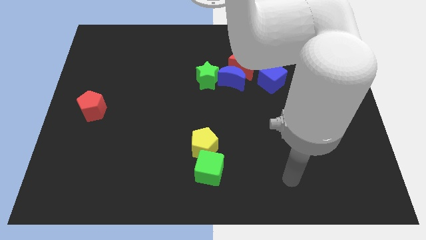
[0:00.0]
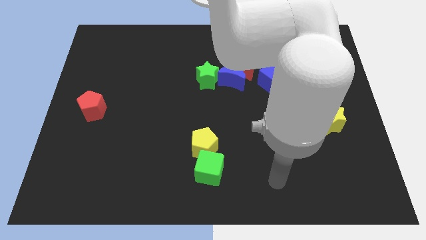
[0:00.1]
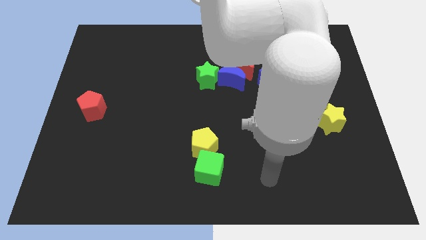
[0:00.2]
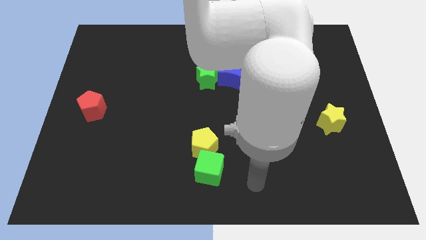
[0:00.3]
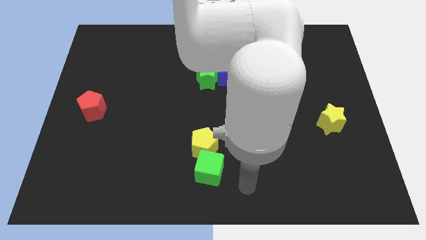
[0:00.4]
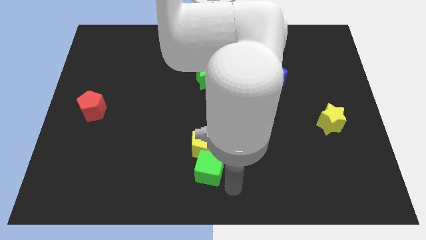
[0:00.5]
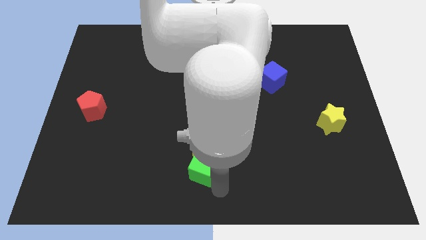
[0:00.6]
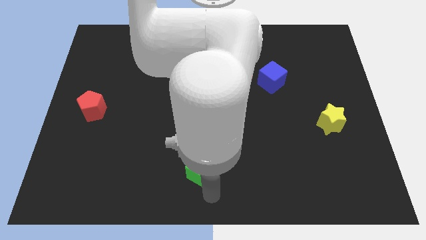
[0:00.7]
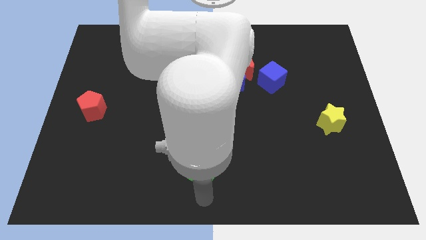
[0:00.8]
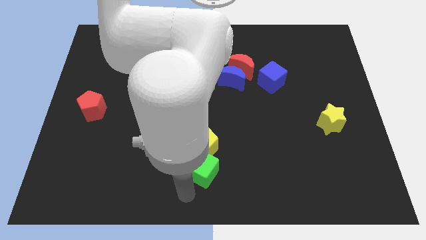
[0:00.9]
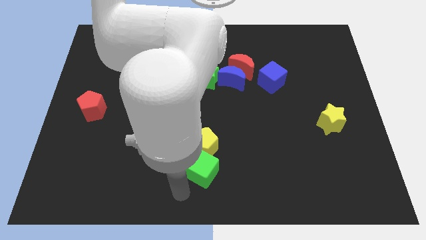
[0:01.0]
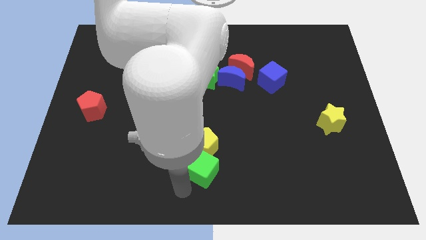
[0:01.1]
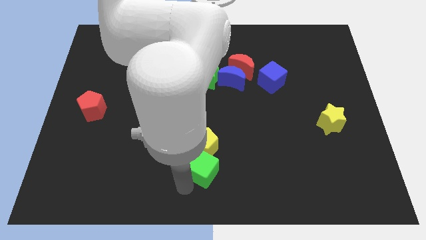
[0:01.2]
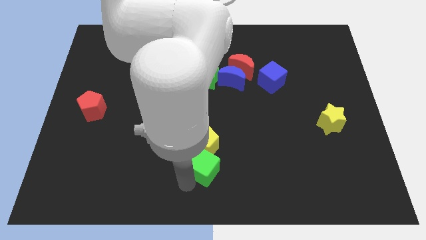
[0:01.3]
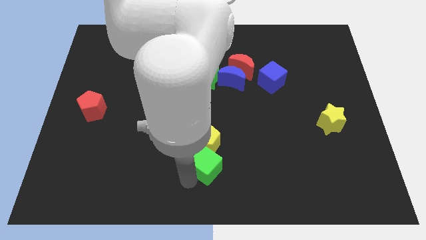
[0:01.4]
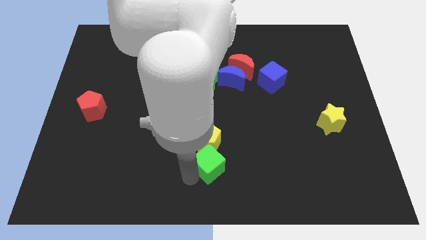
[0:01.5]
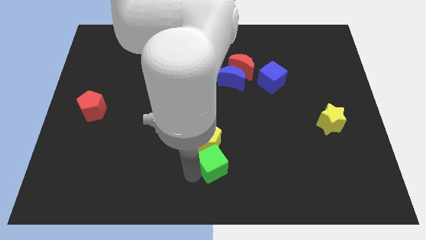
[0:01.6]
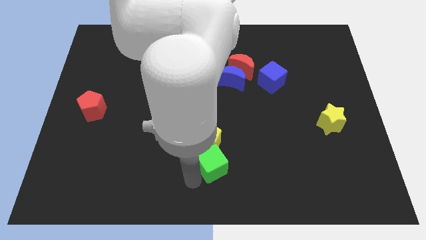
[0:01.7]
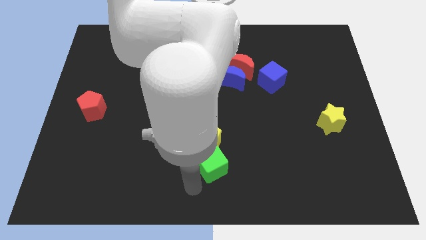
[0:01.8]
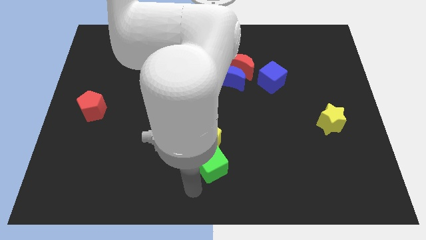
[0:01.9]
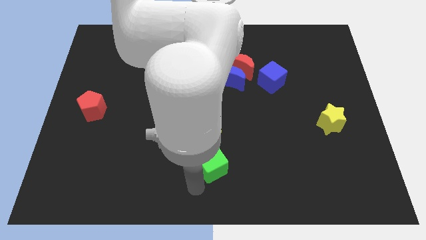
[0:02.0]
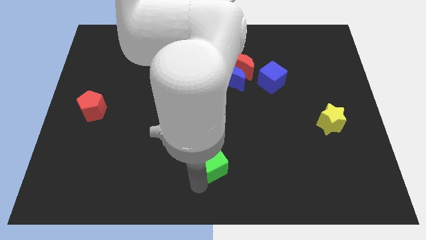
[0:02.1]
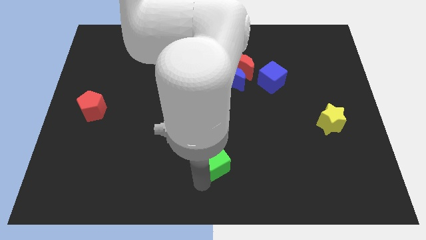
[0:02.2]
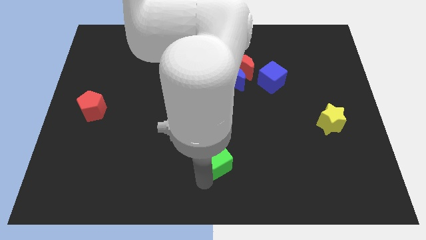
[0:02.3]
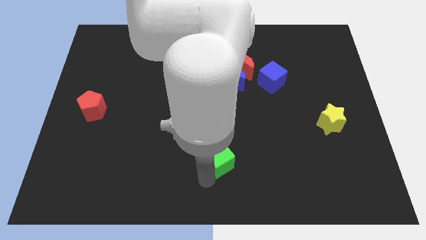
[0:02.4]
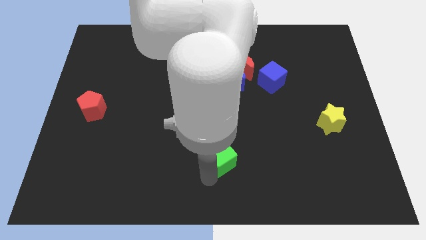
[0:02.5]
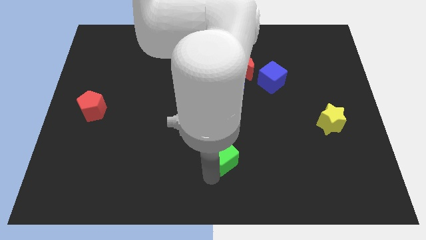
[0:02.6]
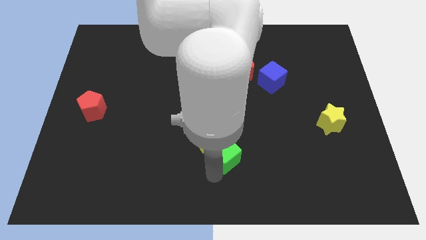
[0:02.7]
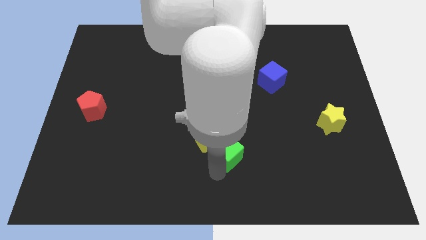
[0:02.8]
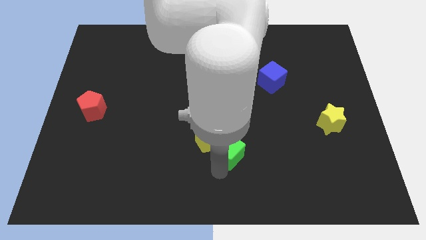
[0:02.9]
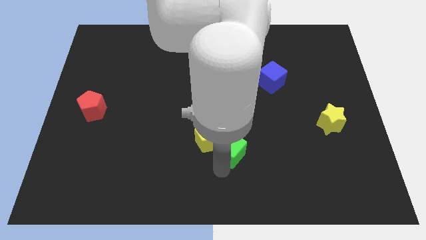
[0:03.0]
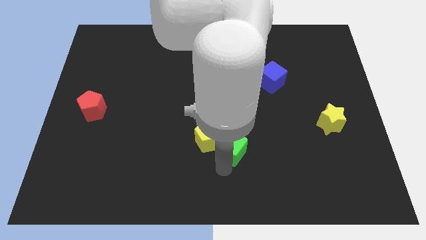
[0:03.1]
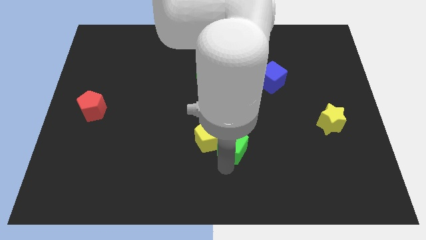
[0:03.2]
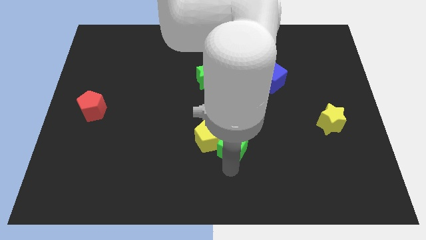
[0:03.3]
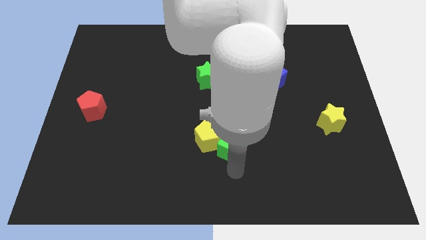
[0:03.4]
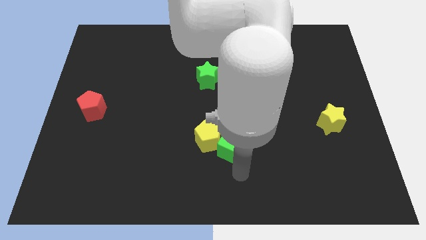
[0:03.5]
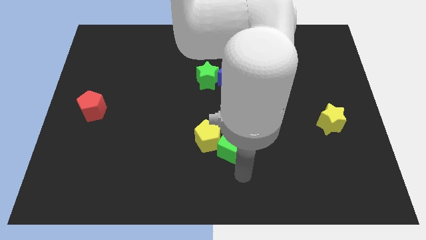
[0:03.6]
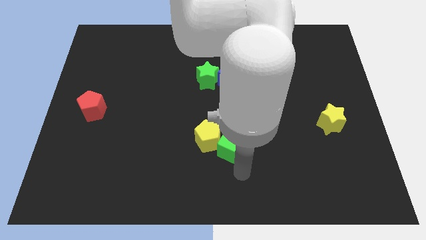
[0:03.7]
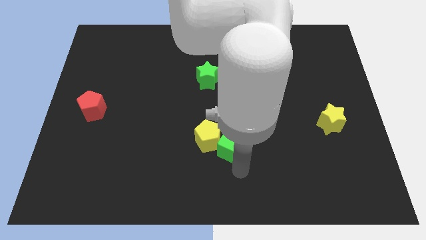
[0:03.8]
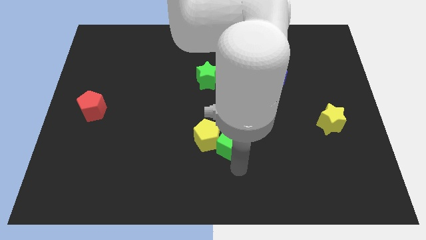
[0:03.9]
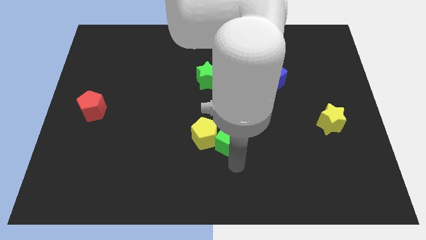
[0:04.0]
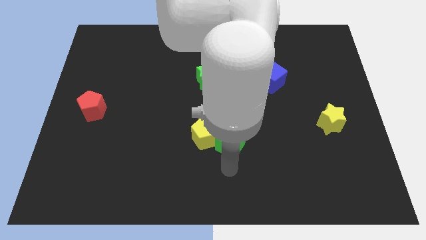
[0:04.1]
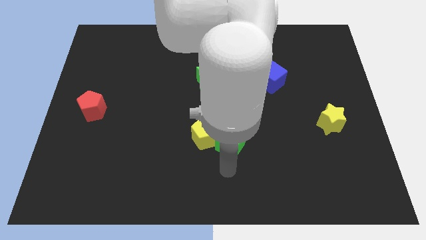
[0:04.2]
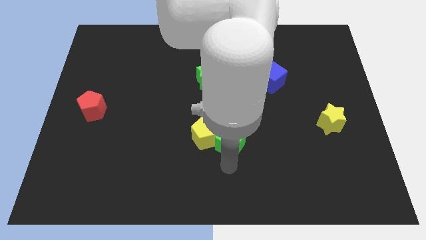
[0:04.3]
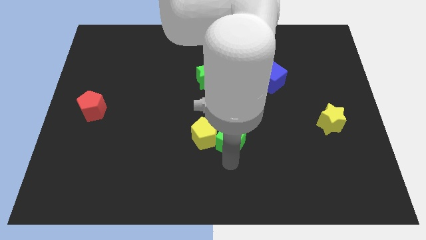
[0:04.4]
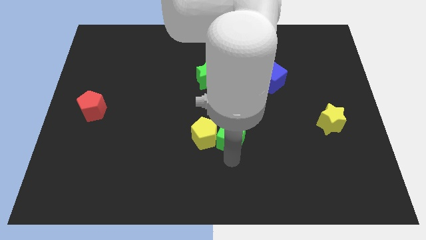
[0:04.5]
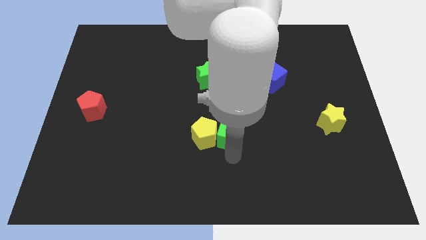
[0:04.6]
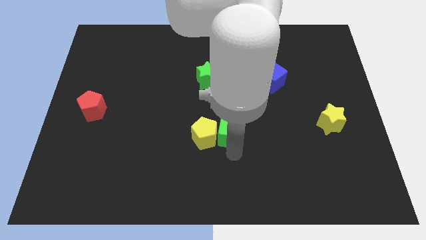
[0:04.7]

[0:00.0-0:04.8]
push the green cube below the blue moon

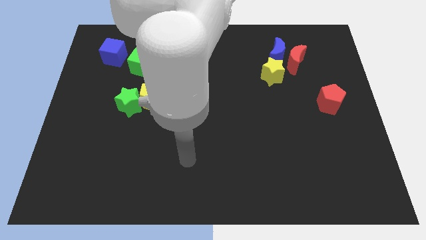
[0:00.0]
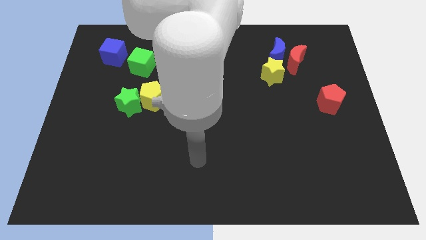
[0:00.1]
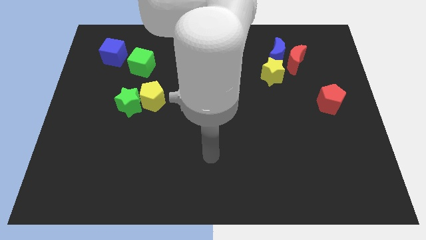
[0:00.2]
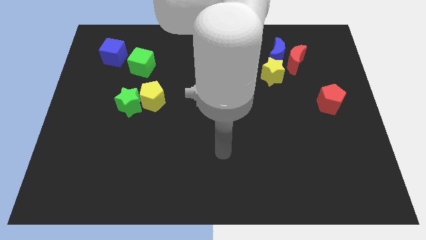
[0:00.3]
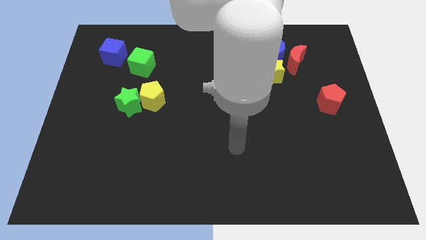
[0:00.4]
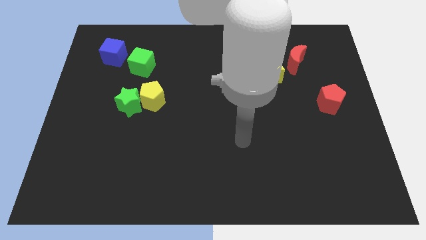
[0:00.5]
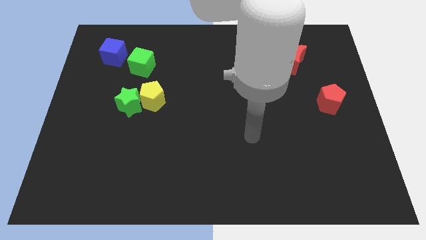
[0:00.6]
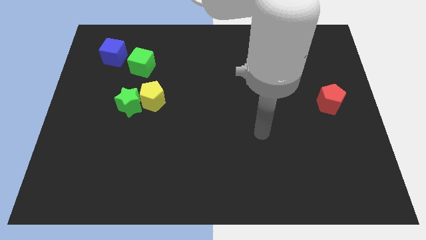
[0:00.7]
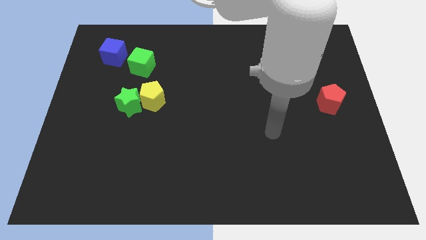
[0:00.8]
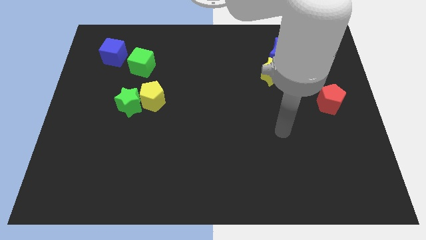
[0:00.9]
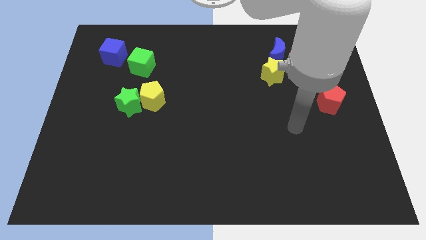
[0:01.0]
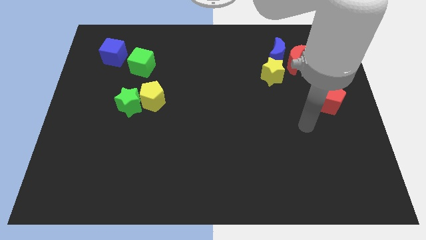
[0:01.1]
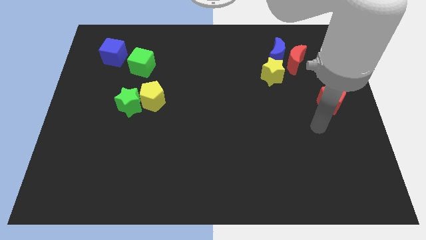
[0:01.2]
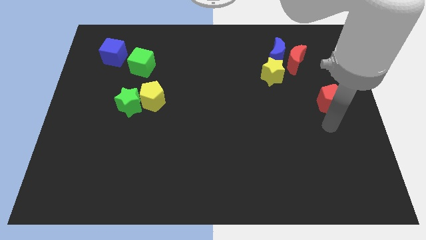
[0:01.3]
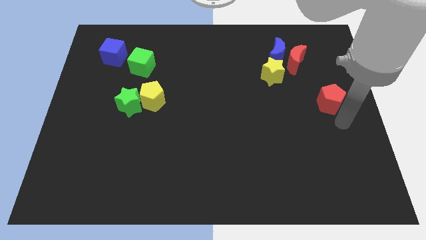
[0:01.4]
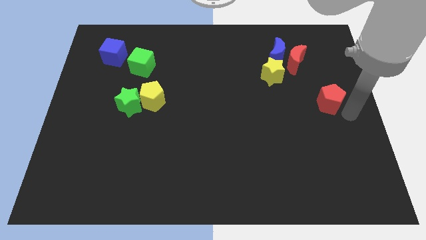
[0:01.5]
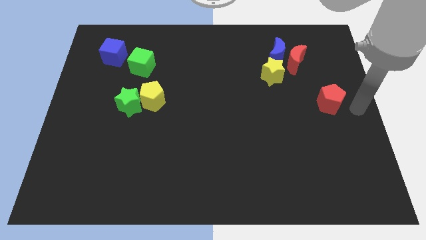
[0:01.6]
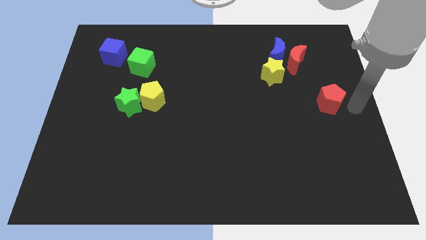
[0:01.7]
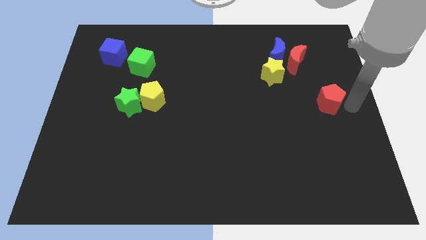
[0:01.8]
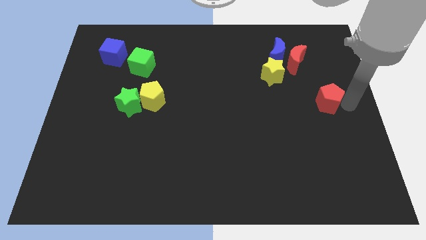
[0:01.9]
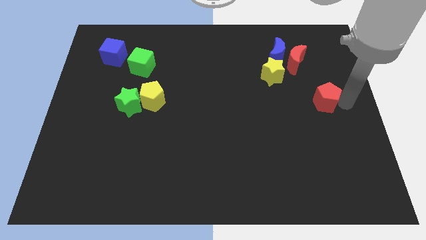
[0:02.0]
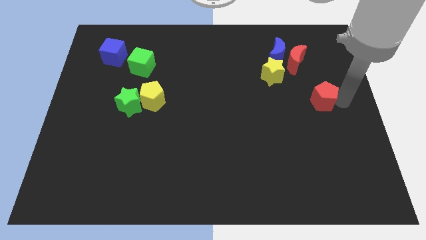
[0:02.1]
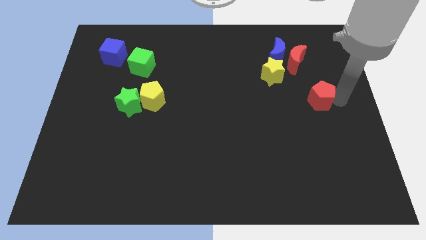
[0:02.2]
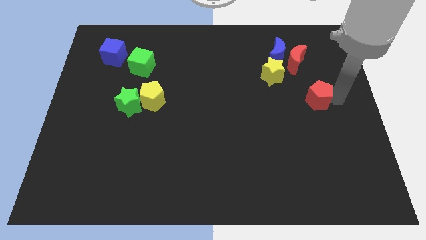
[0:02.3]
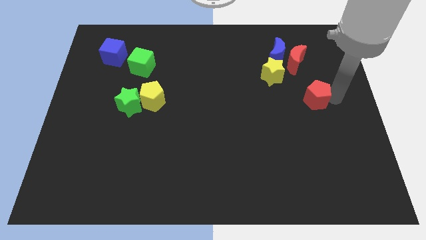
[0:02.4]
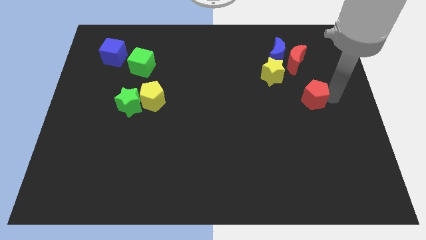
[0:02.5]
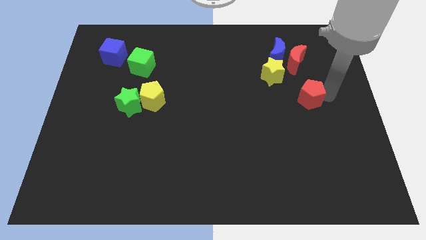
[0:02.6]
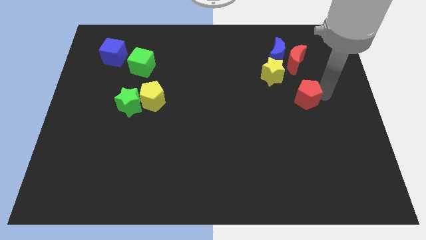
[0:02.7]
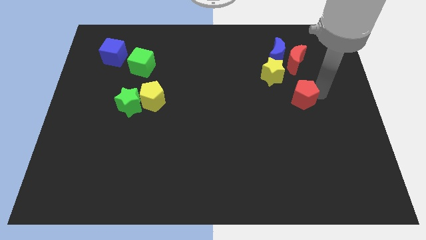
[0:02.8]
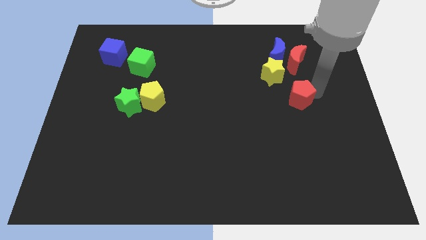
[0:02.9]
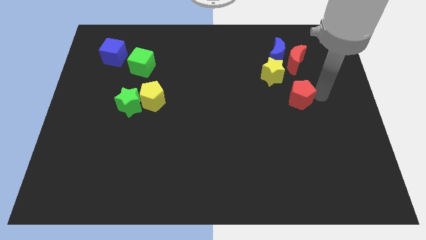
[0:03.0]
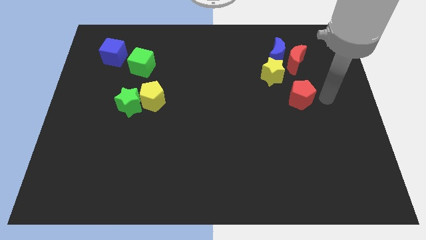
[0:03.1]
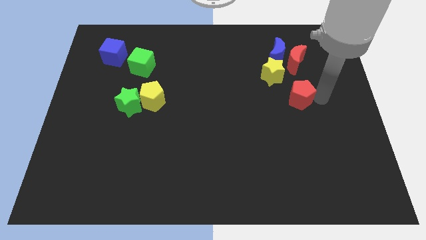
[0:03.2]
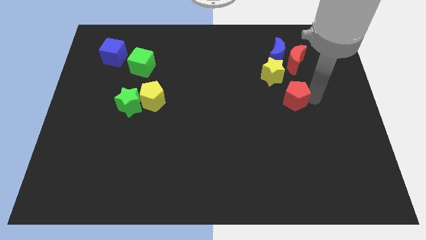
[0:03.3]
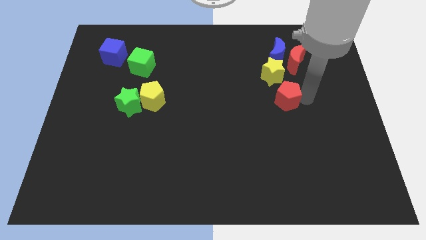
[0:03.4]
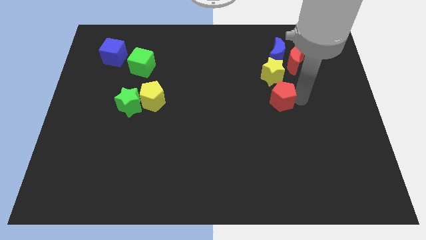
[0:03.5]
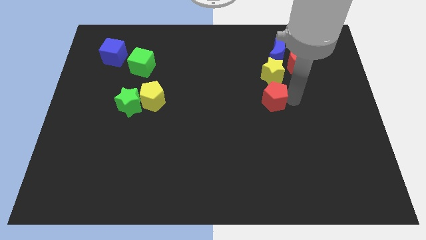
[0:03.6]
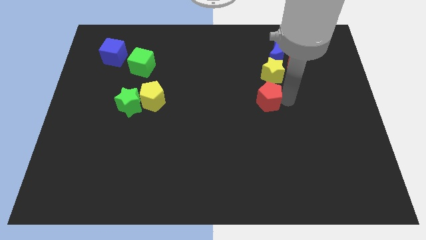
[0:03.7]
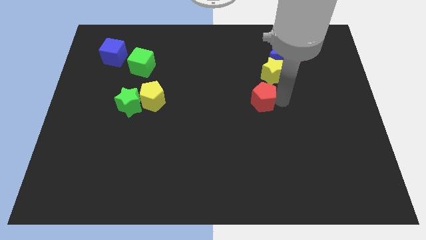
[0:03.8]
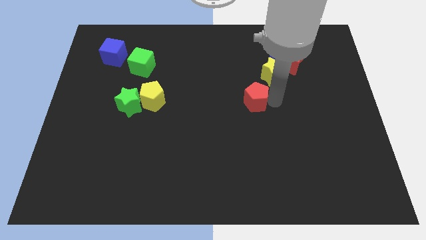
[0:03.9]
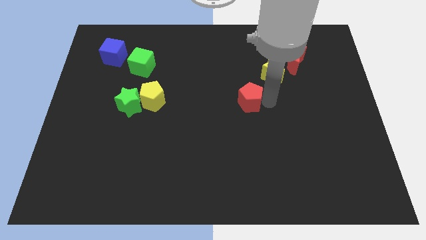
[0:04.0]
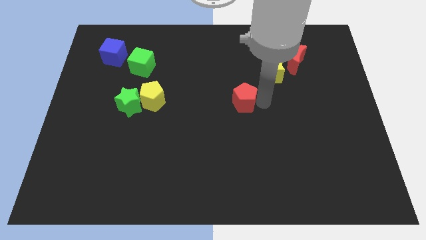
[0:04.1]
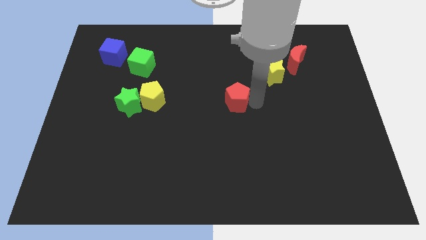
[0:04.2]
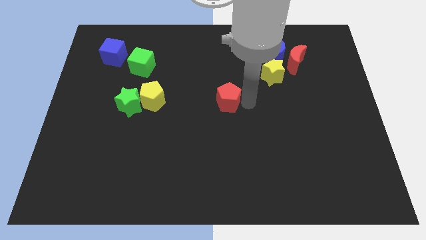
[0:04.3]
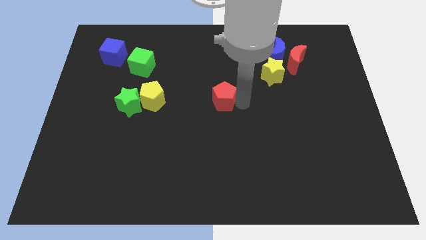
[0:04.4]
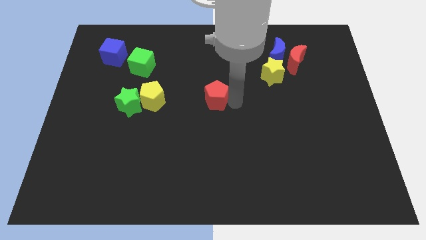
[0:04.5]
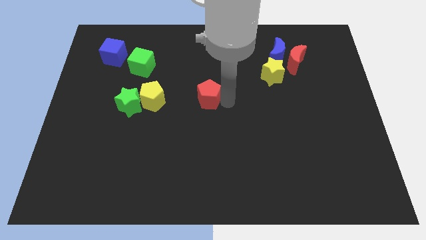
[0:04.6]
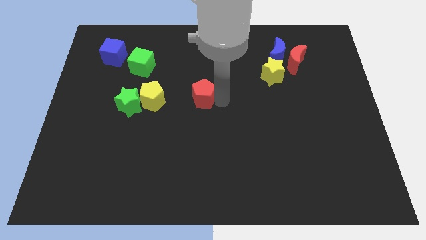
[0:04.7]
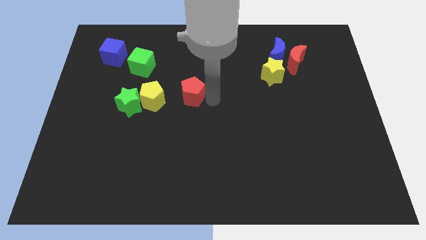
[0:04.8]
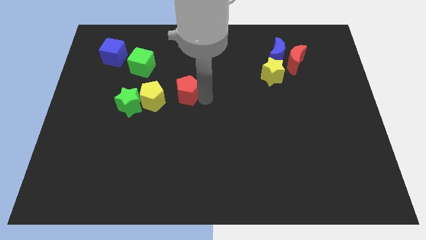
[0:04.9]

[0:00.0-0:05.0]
put the red pentagon to the top right side of the yellow pentagon
